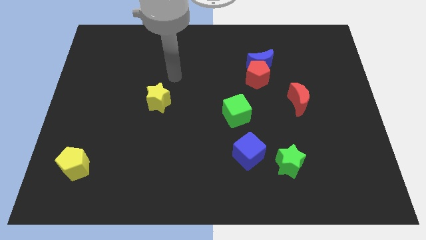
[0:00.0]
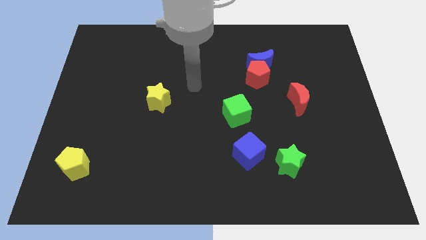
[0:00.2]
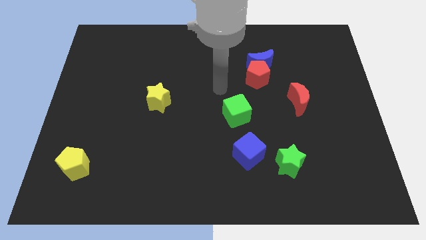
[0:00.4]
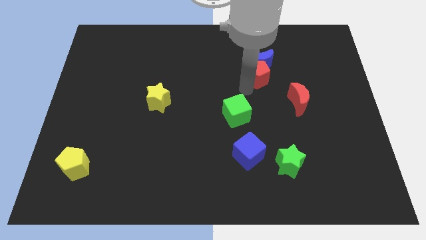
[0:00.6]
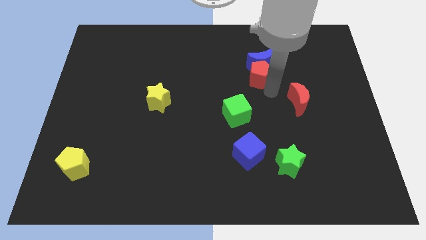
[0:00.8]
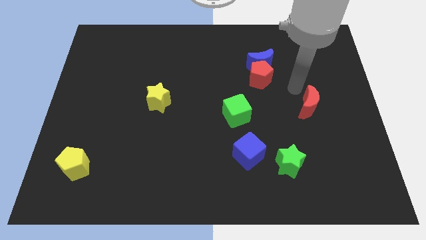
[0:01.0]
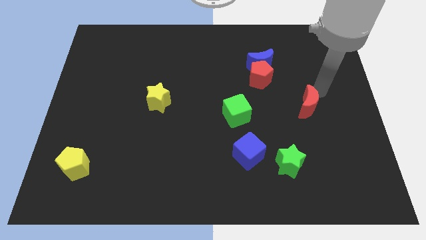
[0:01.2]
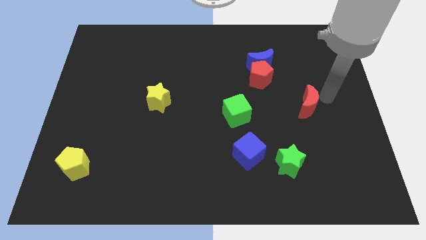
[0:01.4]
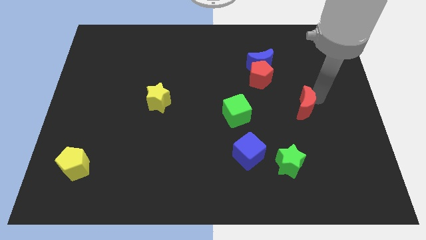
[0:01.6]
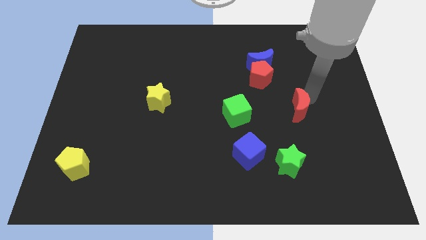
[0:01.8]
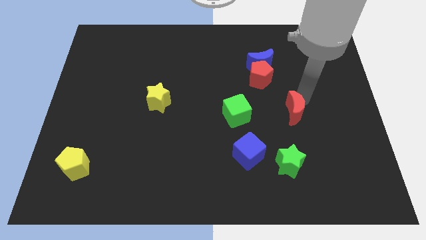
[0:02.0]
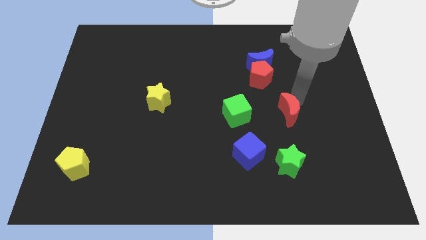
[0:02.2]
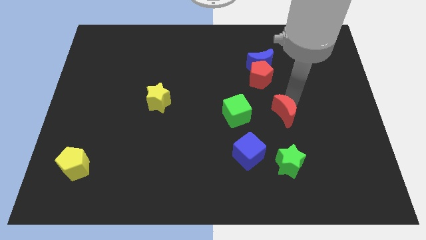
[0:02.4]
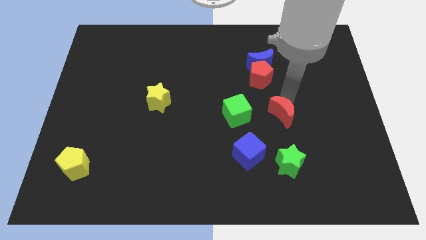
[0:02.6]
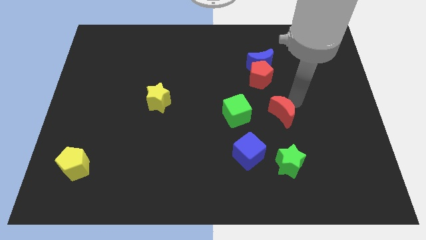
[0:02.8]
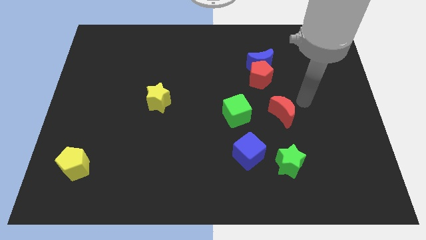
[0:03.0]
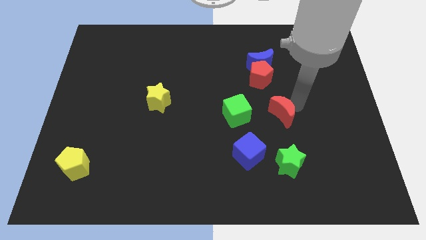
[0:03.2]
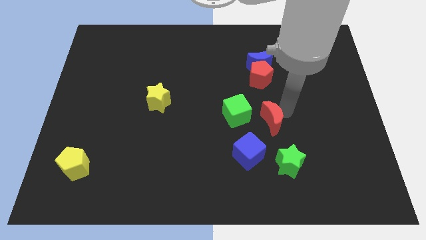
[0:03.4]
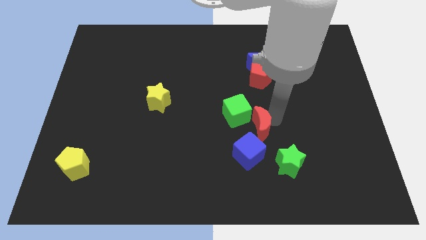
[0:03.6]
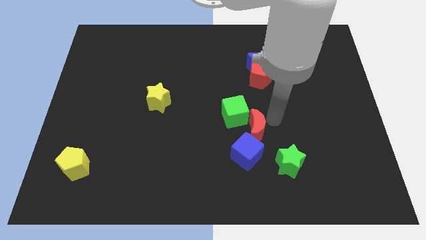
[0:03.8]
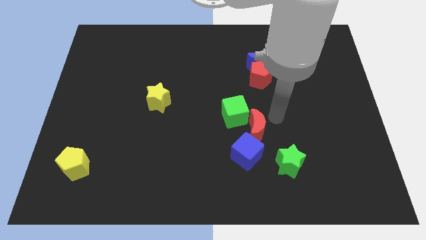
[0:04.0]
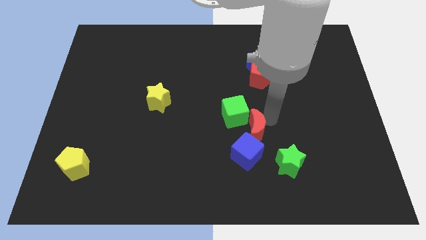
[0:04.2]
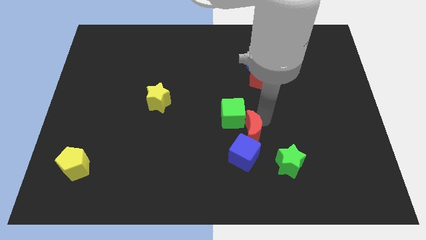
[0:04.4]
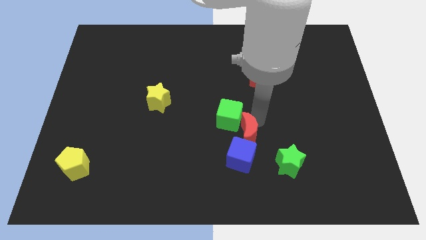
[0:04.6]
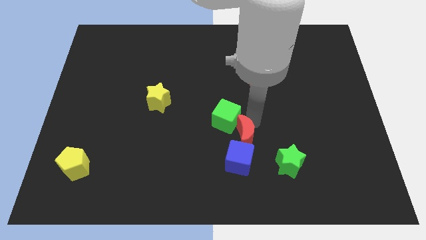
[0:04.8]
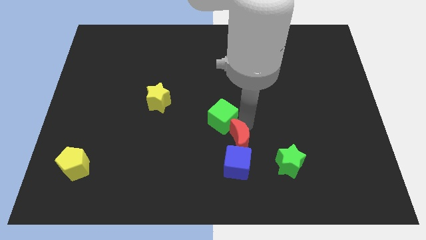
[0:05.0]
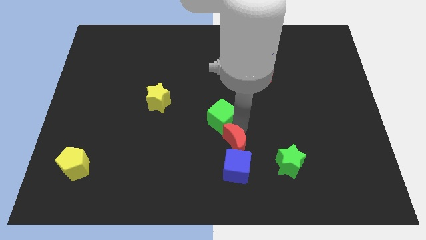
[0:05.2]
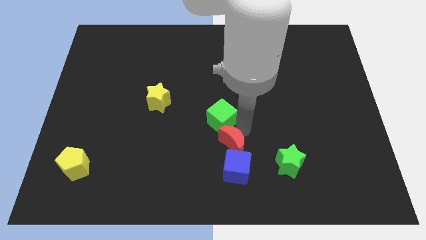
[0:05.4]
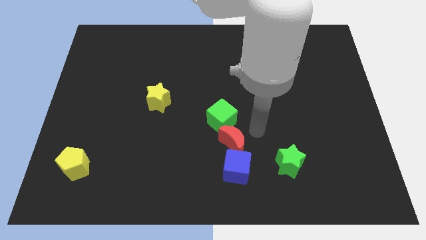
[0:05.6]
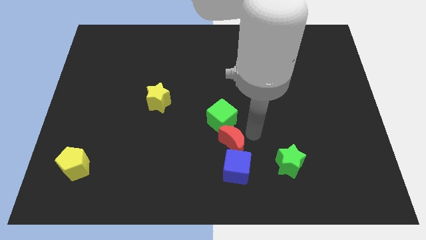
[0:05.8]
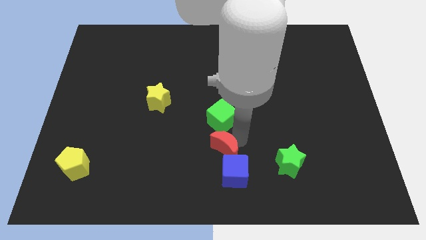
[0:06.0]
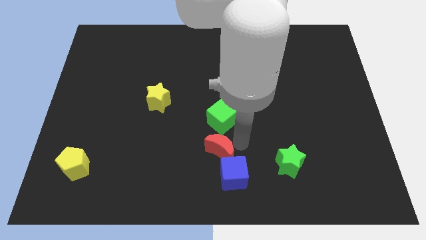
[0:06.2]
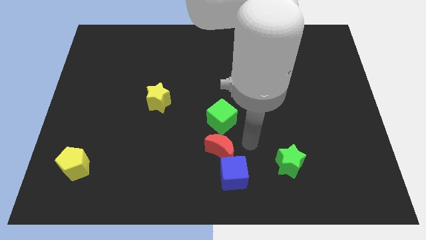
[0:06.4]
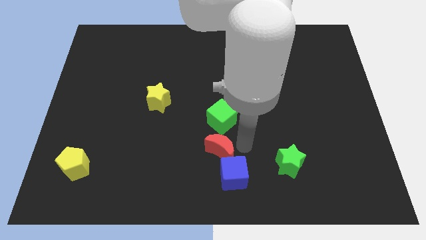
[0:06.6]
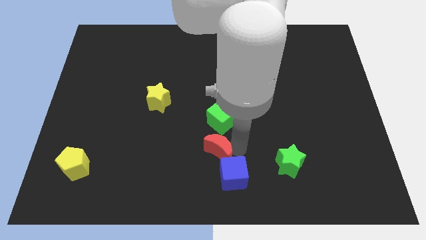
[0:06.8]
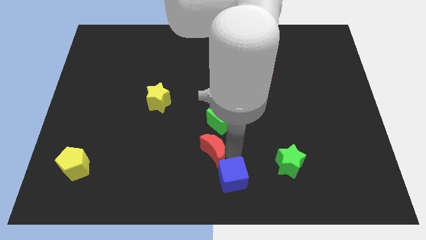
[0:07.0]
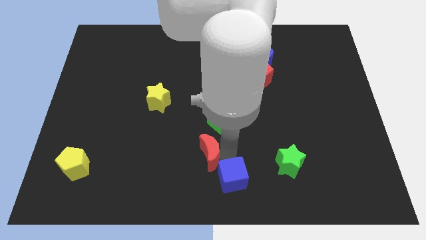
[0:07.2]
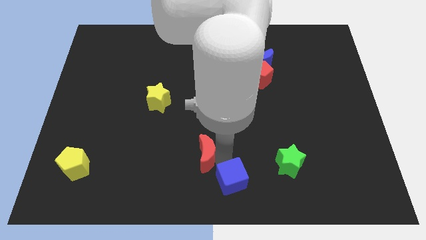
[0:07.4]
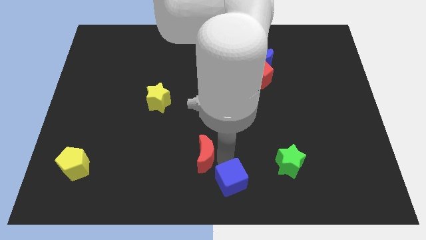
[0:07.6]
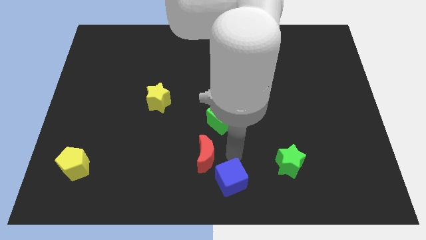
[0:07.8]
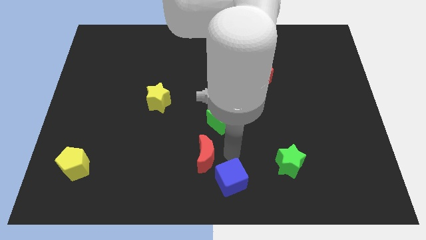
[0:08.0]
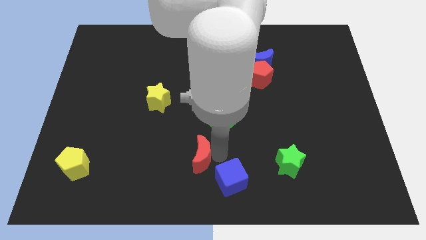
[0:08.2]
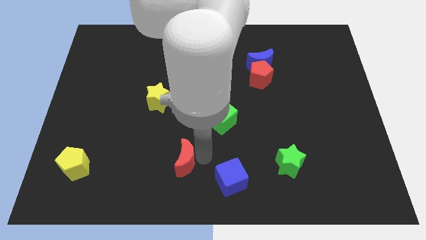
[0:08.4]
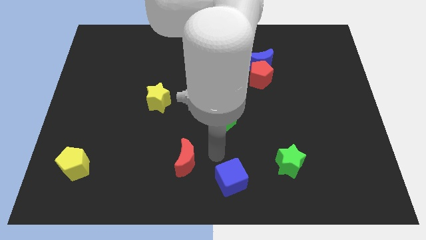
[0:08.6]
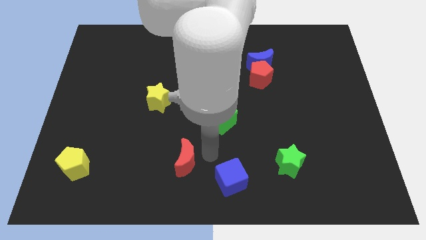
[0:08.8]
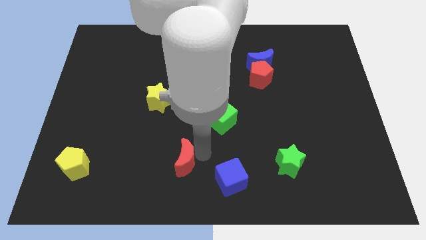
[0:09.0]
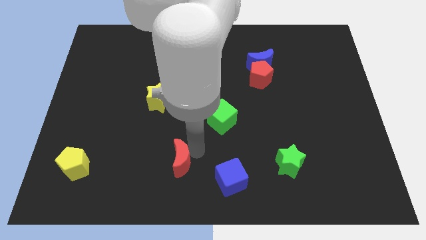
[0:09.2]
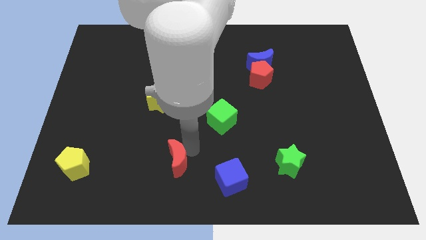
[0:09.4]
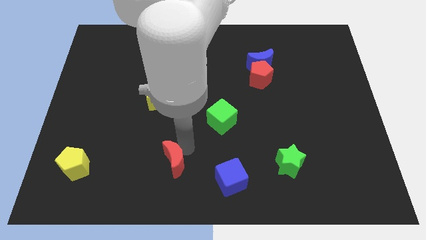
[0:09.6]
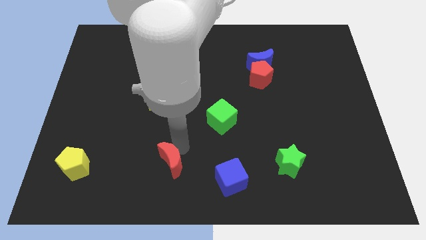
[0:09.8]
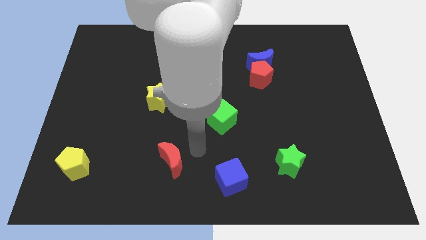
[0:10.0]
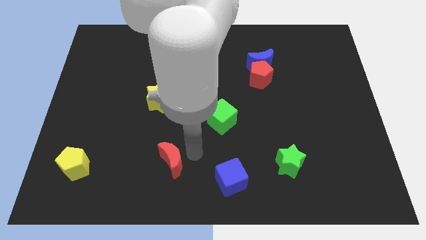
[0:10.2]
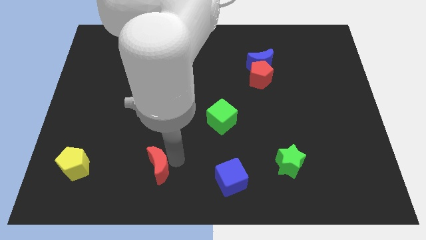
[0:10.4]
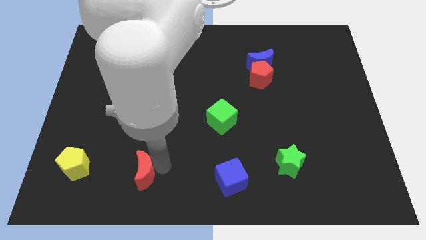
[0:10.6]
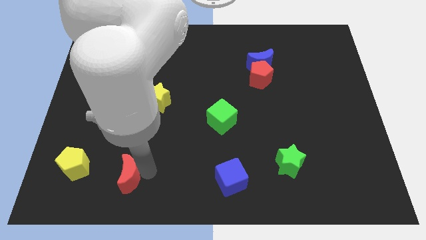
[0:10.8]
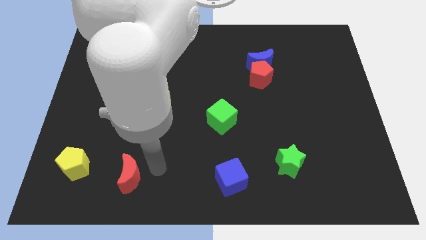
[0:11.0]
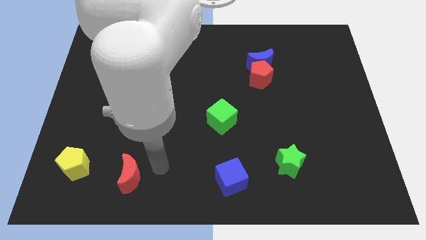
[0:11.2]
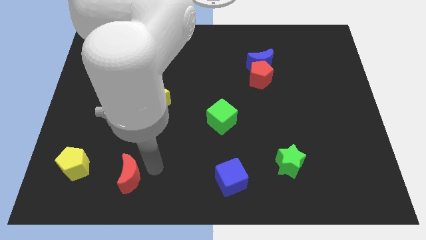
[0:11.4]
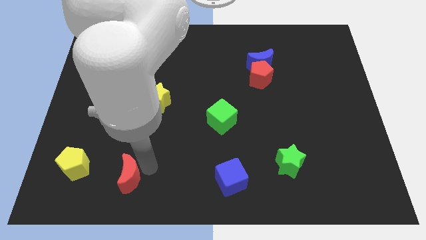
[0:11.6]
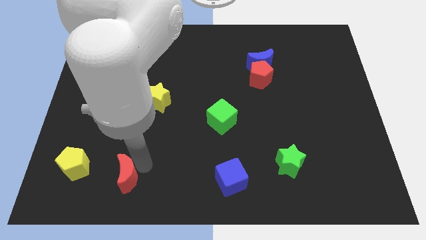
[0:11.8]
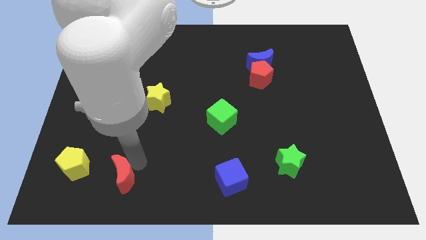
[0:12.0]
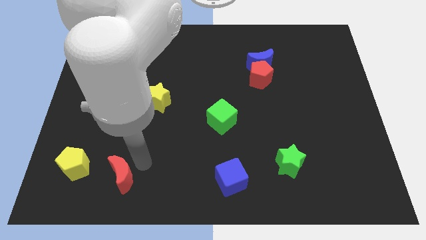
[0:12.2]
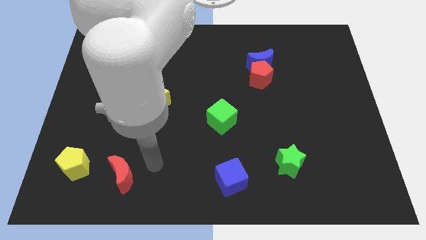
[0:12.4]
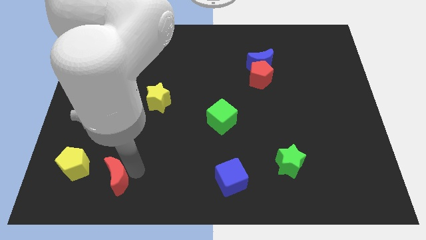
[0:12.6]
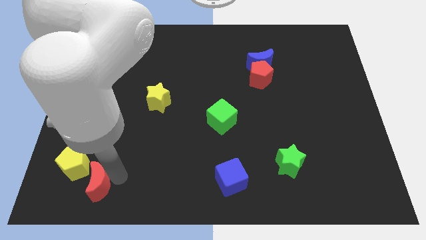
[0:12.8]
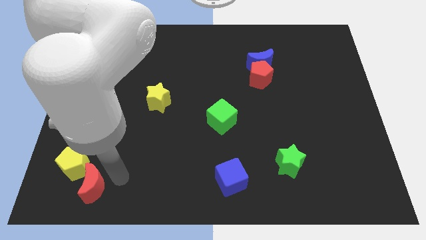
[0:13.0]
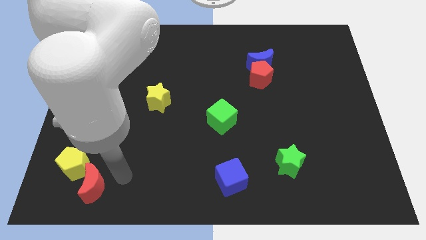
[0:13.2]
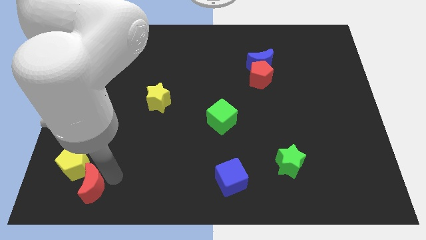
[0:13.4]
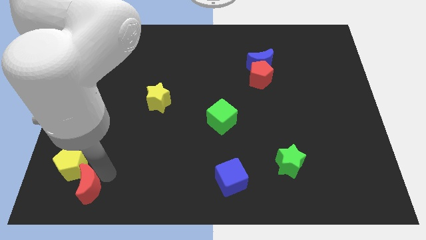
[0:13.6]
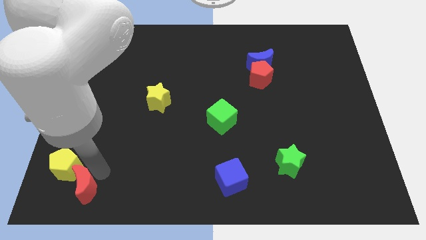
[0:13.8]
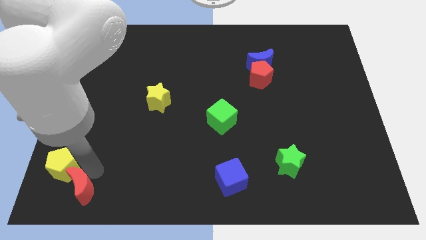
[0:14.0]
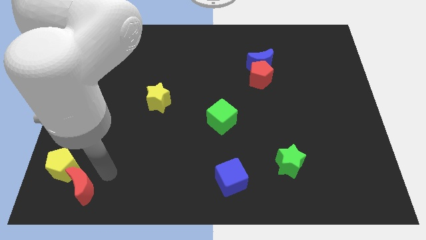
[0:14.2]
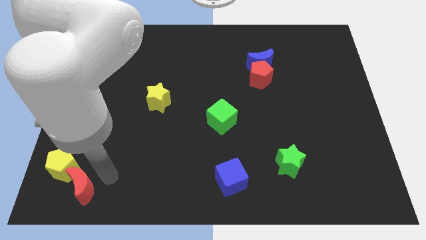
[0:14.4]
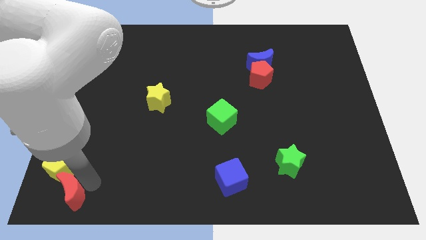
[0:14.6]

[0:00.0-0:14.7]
move the red moon to the bottom left
